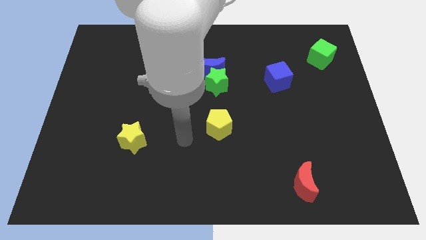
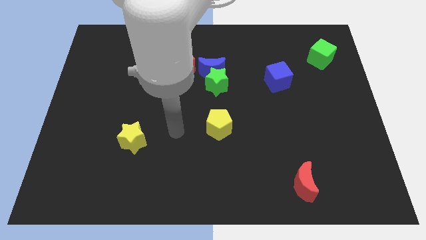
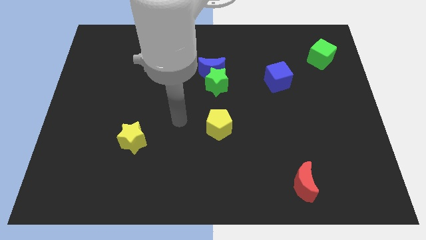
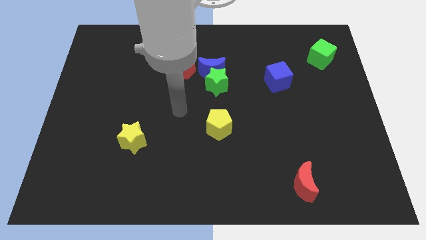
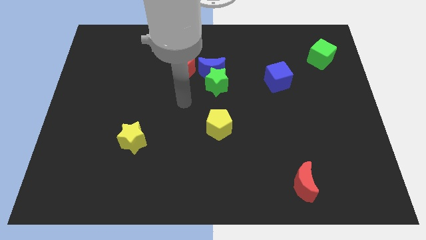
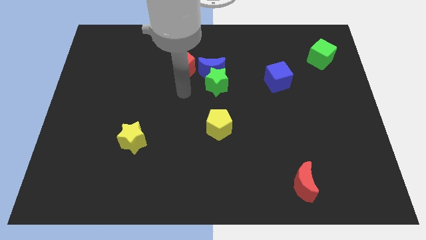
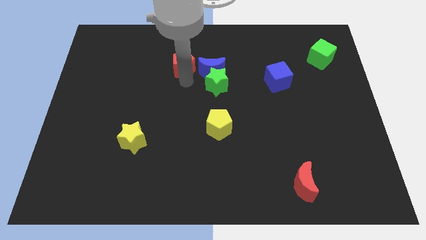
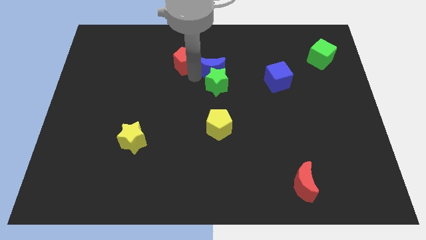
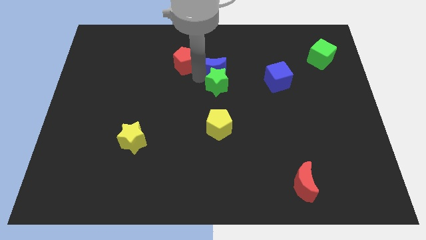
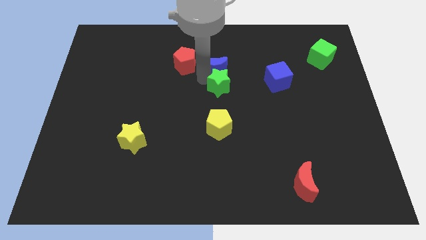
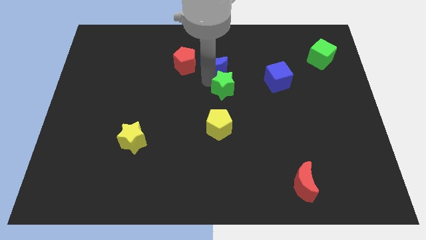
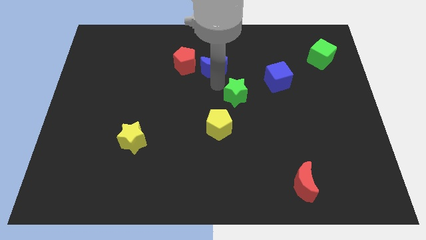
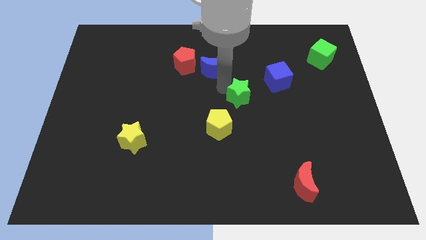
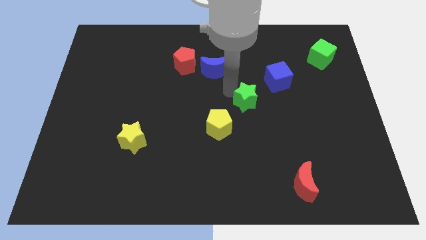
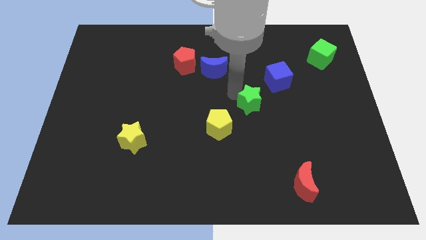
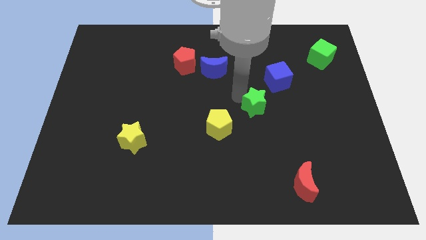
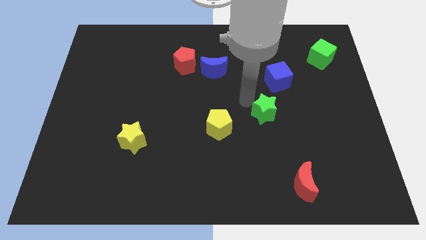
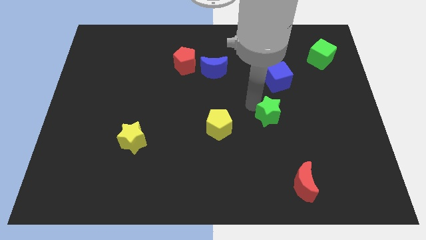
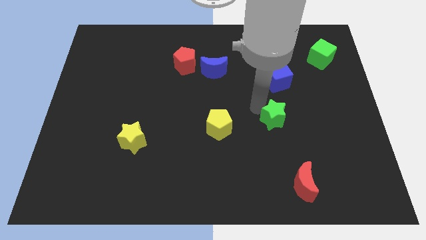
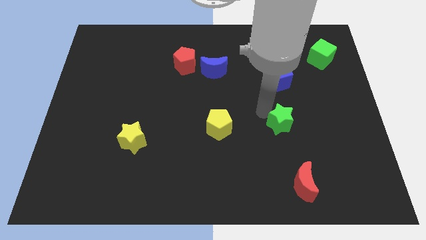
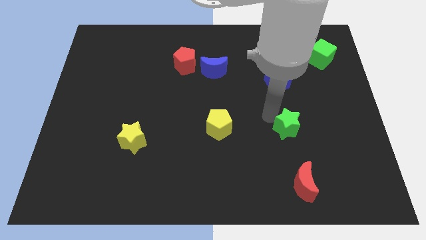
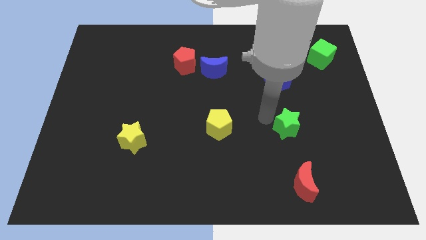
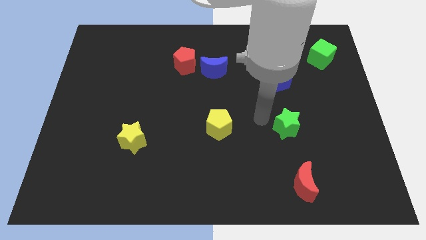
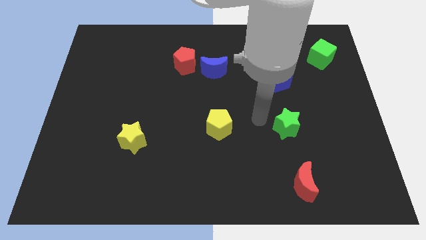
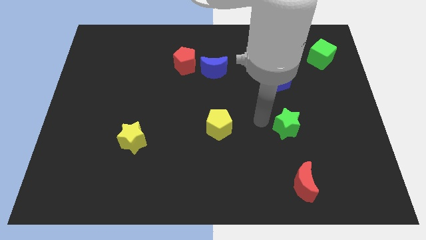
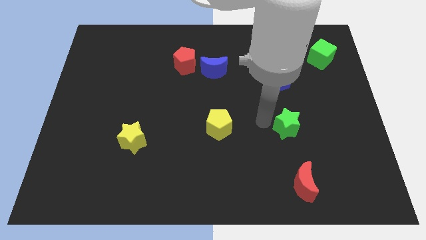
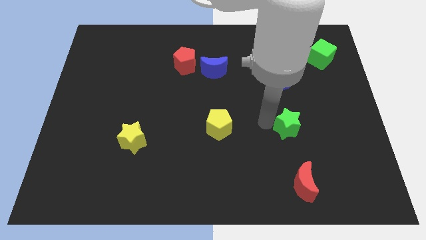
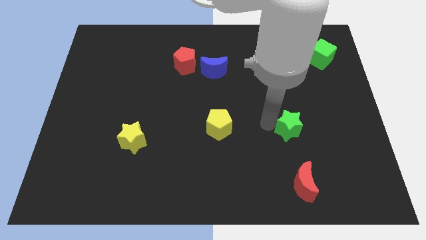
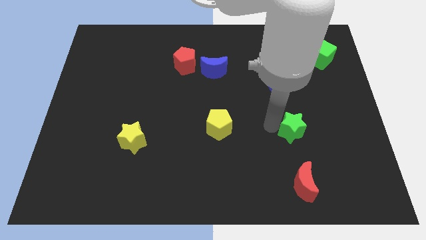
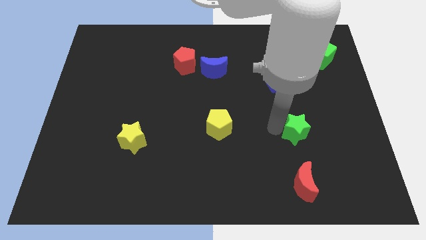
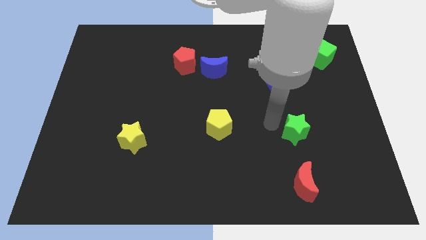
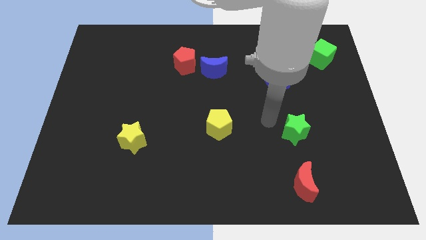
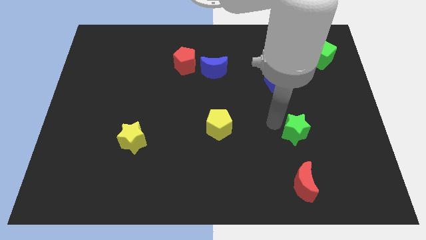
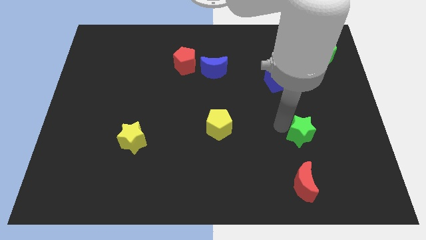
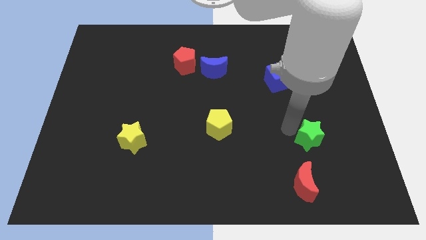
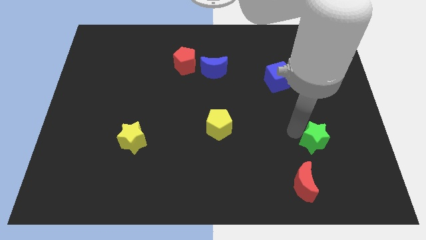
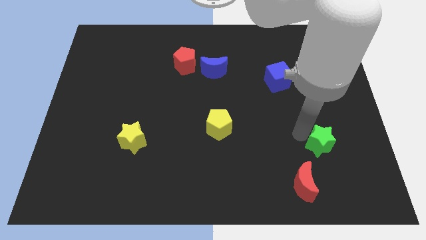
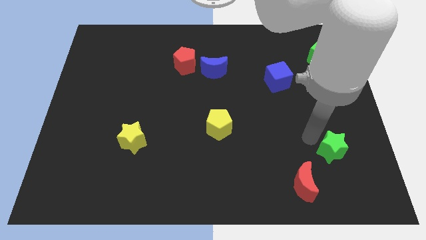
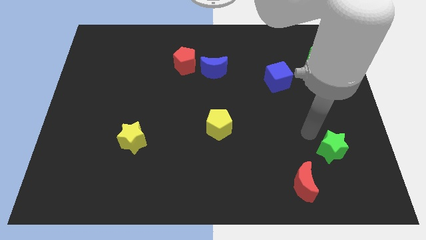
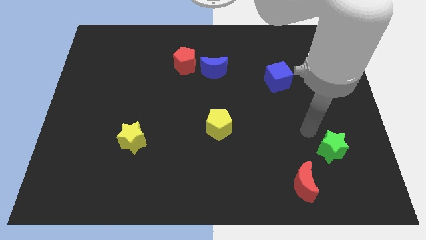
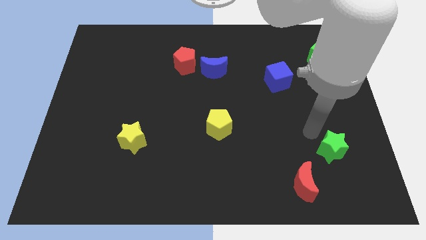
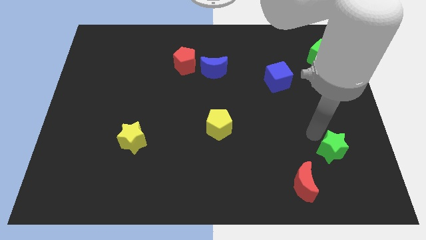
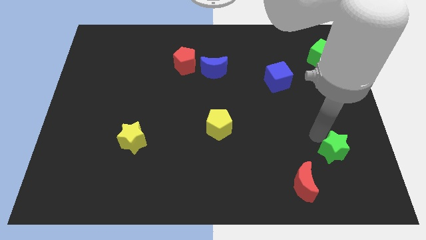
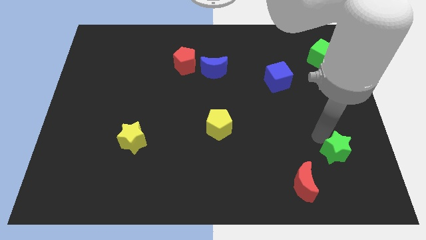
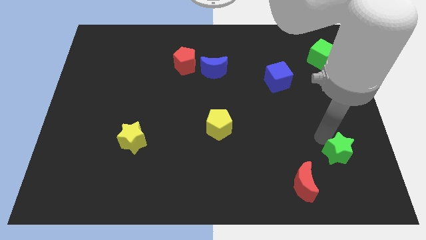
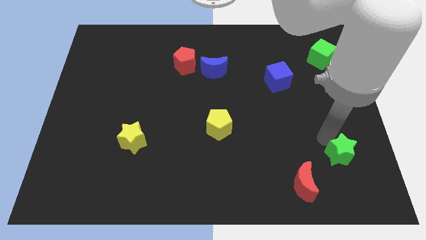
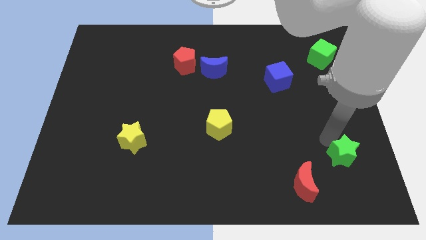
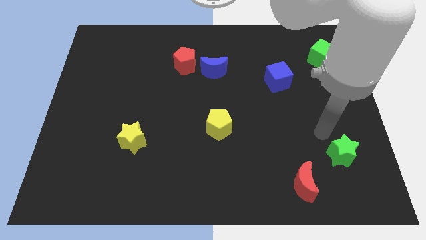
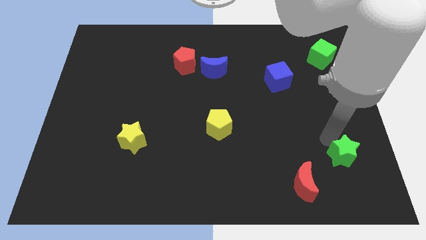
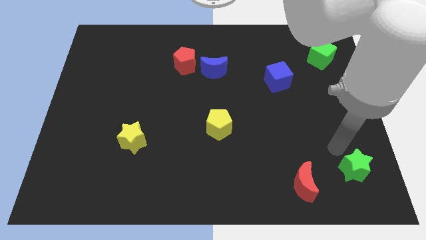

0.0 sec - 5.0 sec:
move the green star to the bottom right of the board

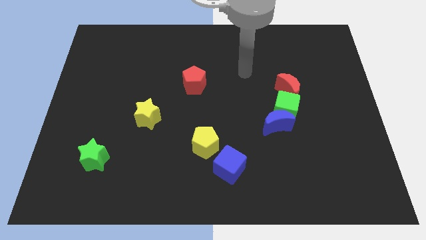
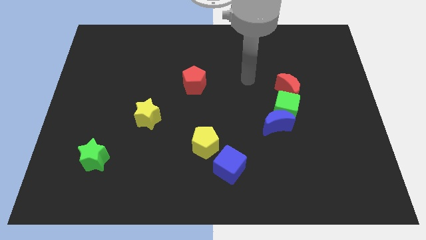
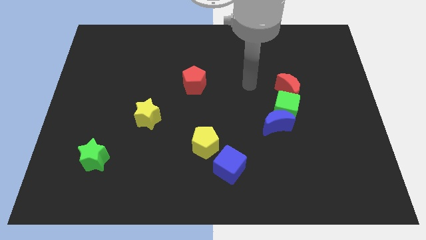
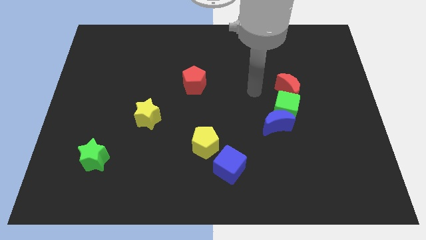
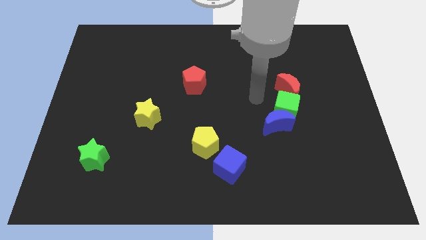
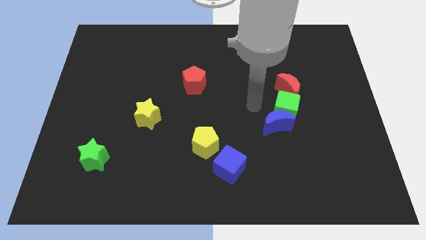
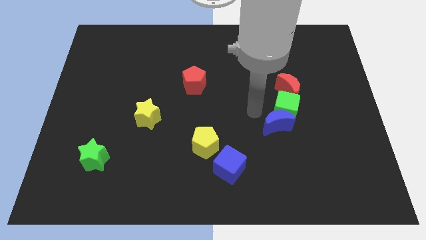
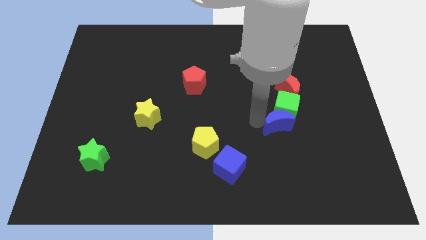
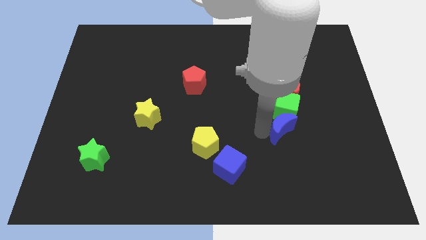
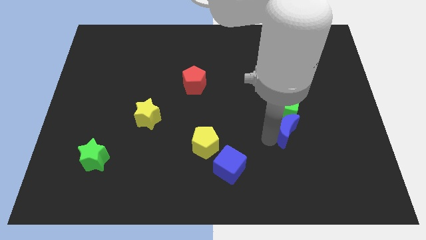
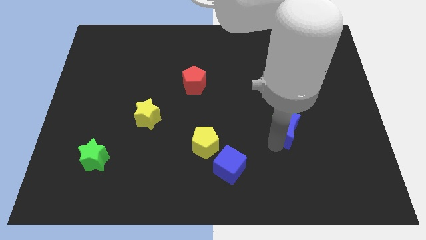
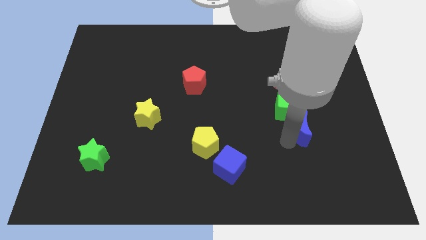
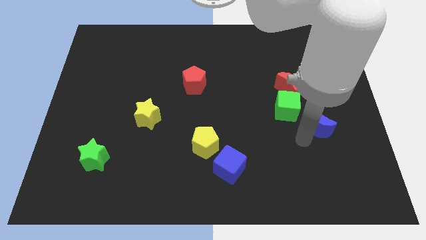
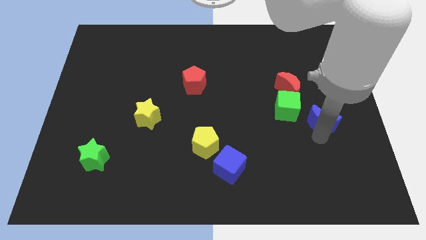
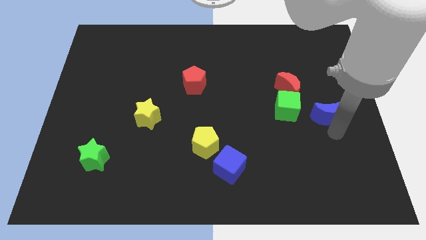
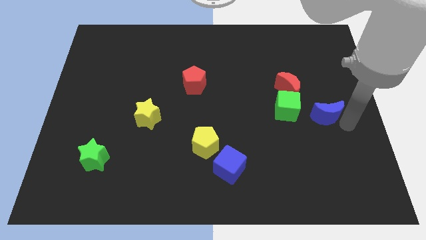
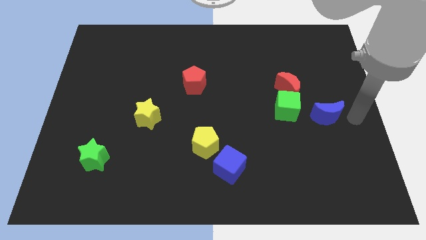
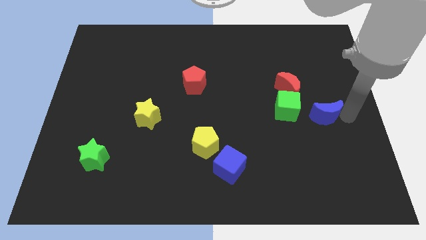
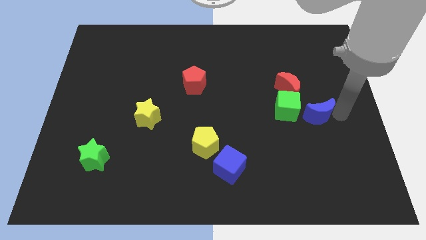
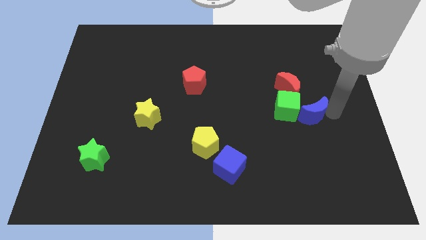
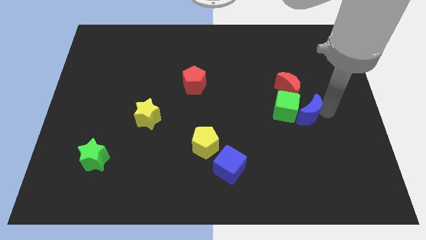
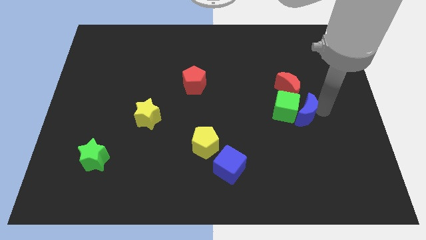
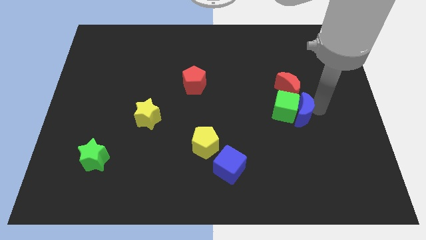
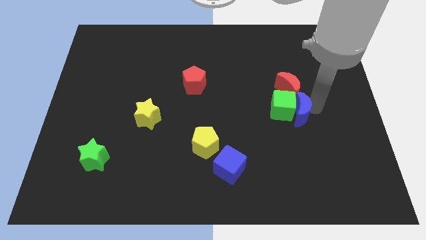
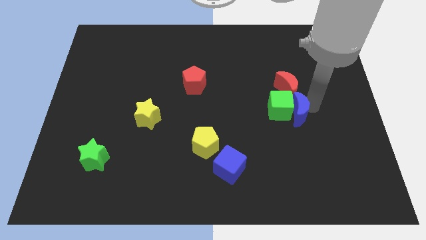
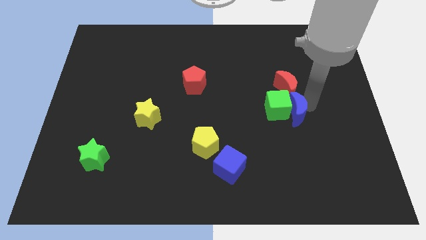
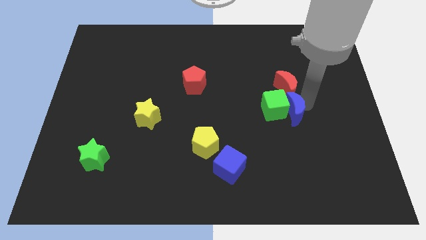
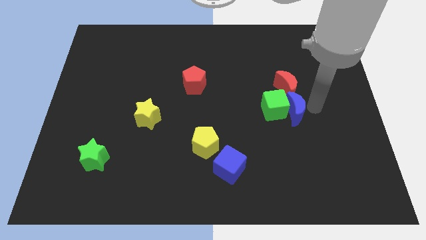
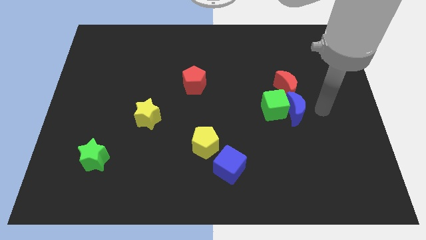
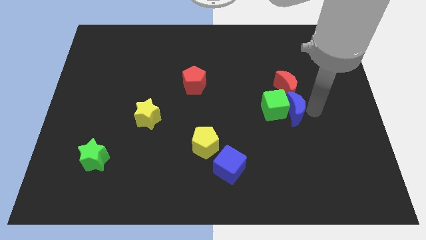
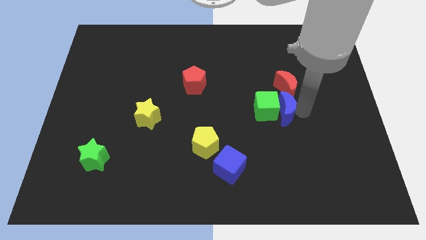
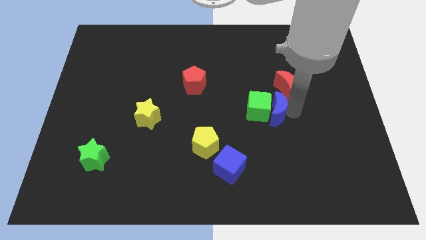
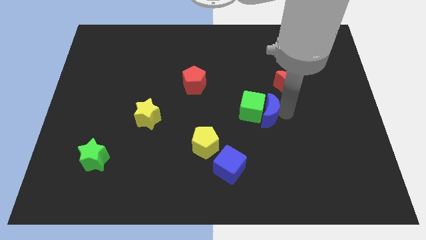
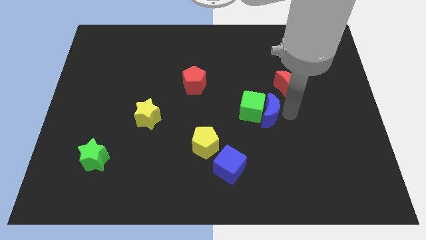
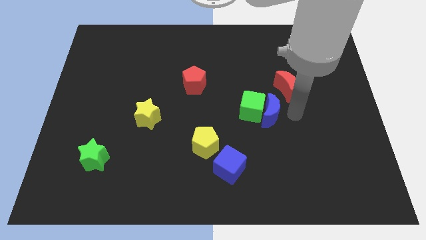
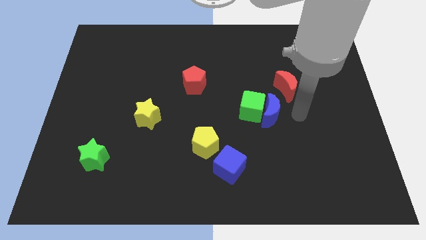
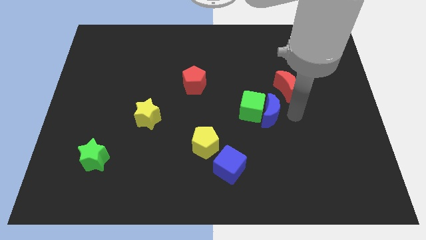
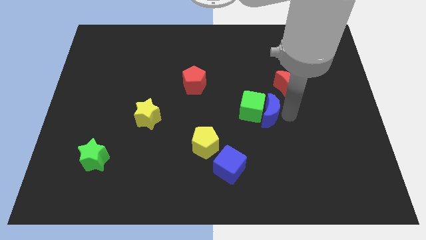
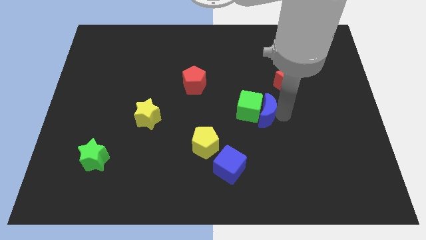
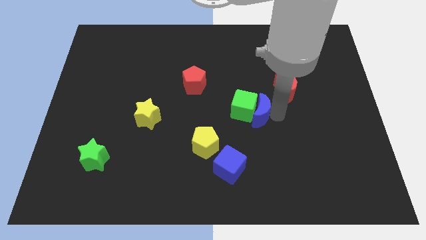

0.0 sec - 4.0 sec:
move the blue moon to the center
